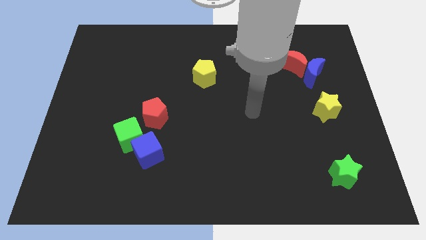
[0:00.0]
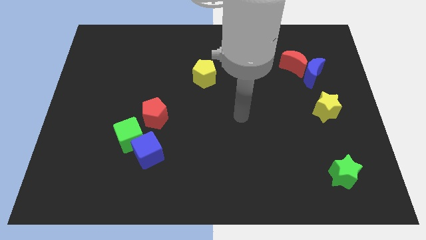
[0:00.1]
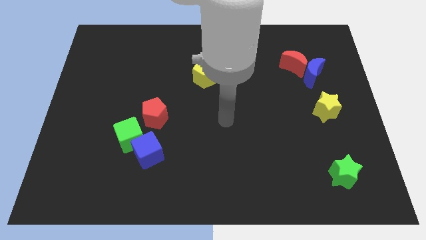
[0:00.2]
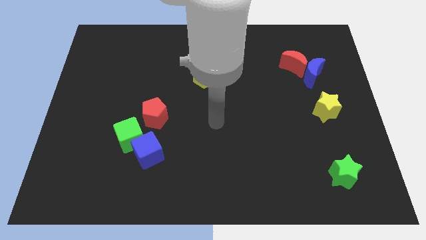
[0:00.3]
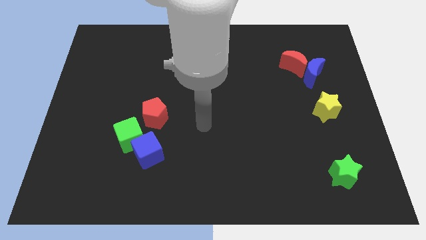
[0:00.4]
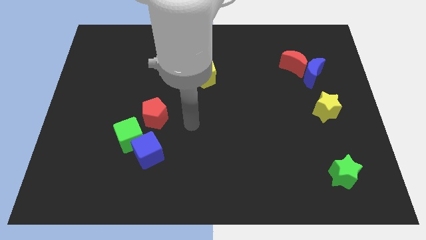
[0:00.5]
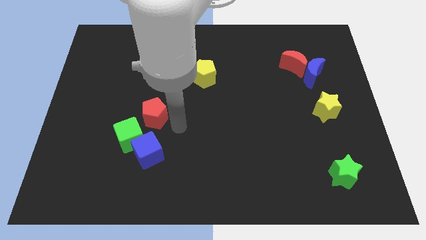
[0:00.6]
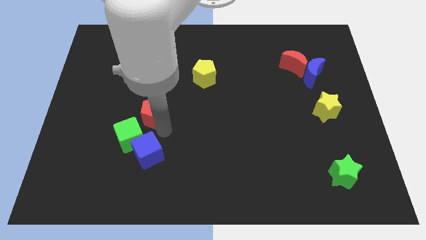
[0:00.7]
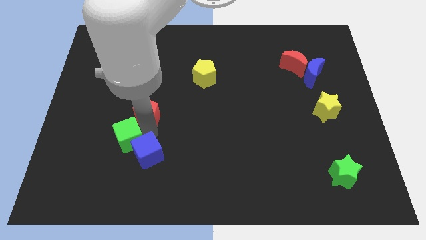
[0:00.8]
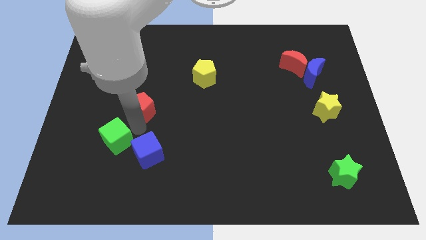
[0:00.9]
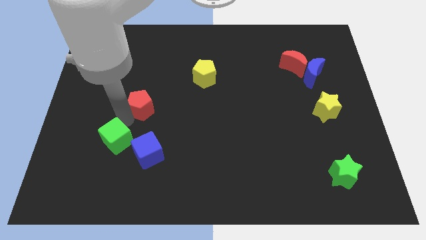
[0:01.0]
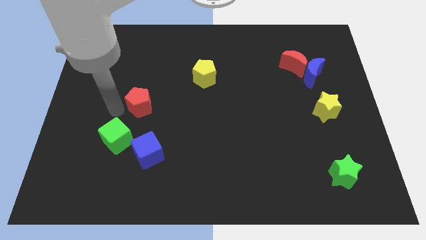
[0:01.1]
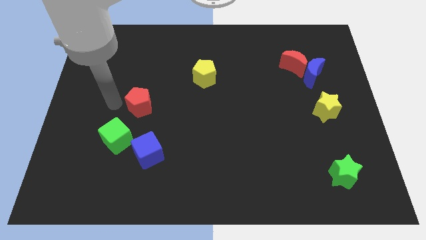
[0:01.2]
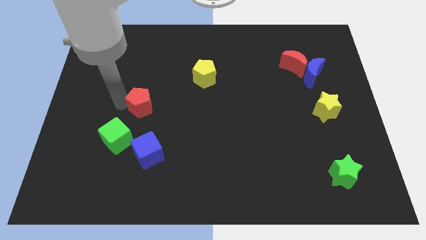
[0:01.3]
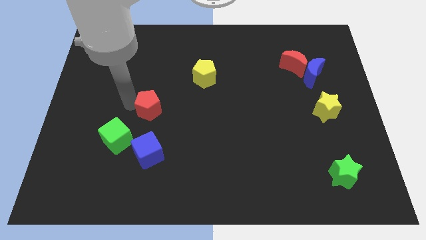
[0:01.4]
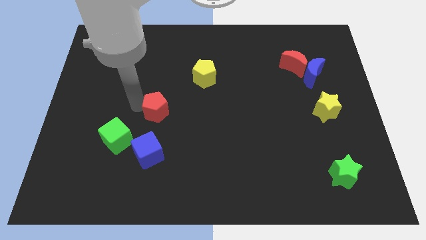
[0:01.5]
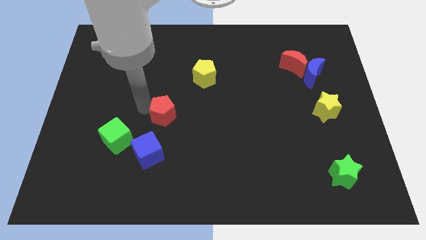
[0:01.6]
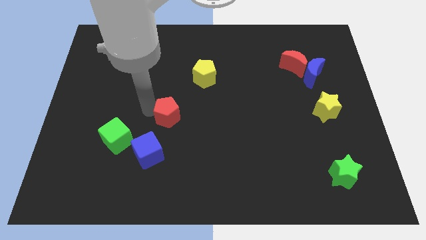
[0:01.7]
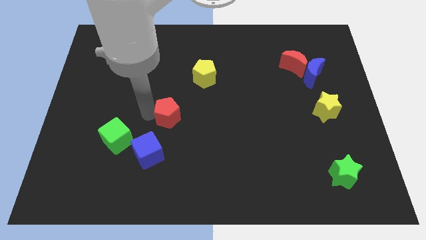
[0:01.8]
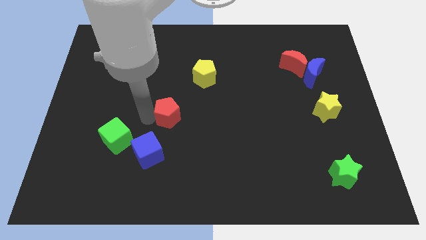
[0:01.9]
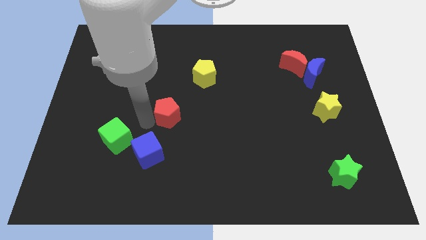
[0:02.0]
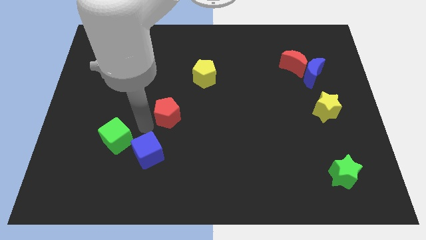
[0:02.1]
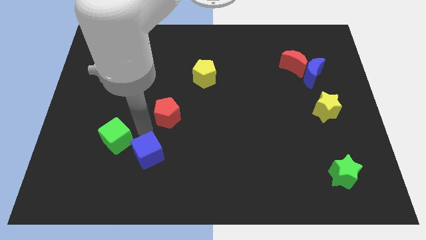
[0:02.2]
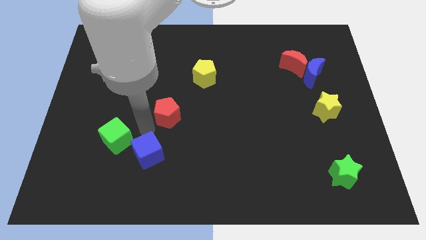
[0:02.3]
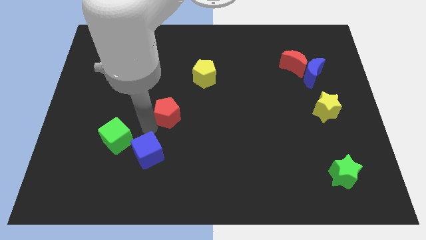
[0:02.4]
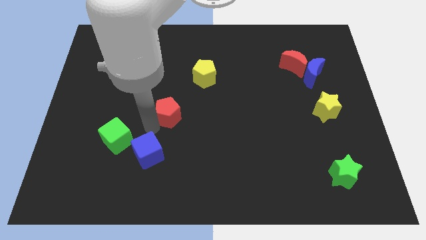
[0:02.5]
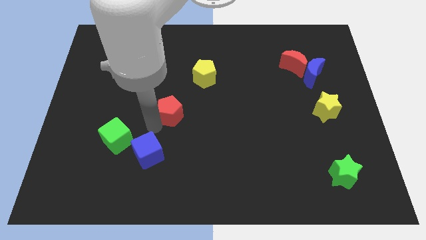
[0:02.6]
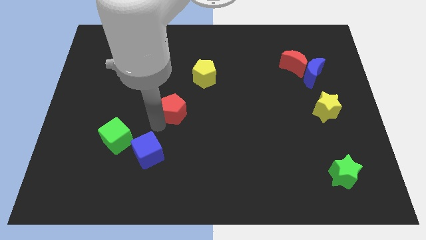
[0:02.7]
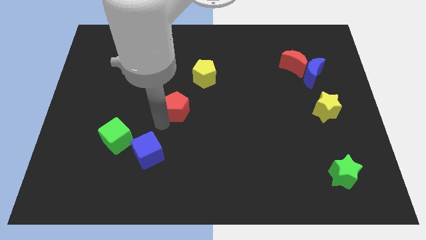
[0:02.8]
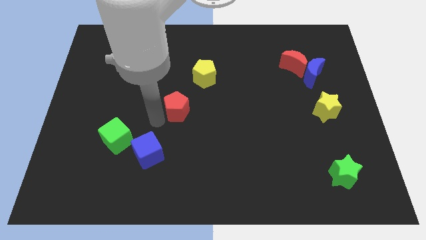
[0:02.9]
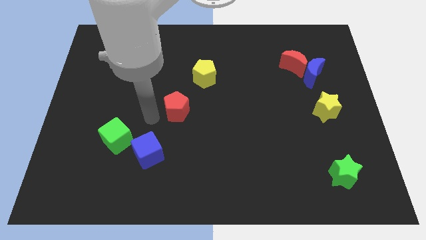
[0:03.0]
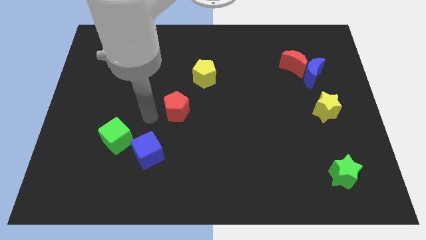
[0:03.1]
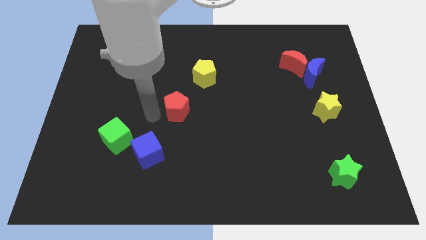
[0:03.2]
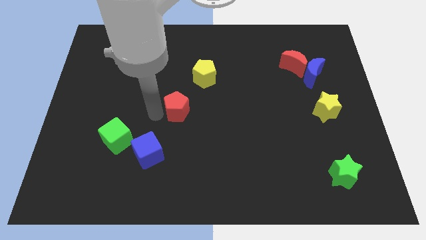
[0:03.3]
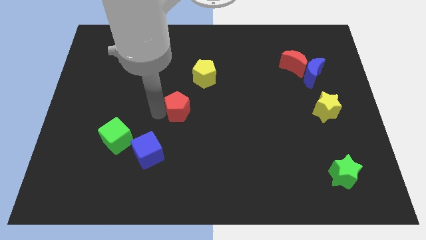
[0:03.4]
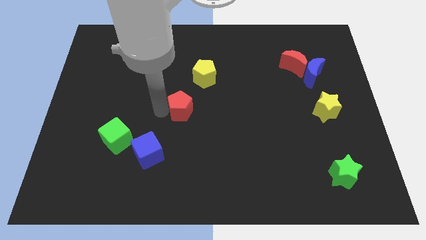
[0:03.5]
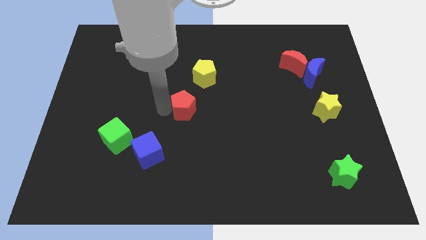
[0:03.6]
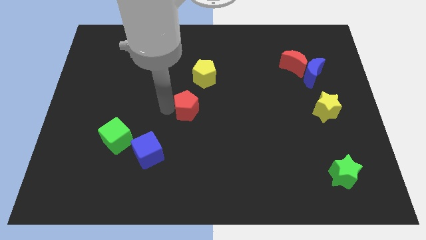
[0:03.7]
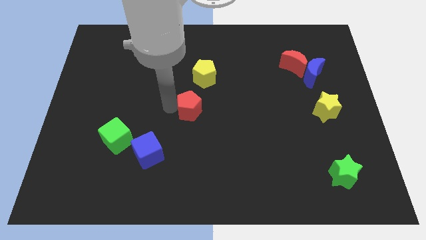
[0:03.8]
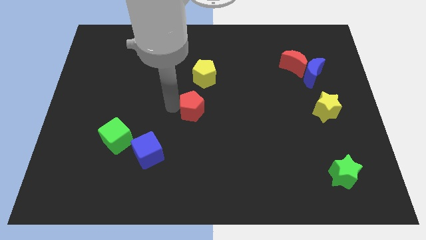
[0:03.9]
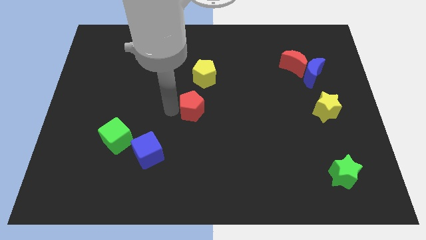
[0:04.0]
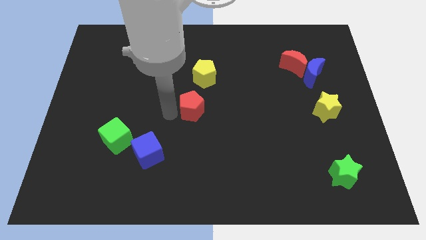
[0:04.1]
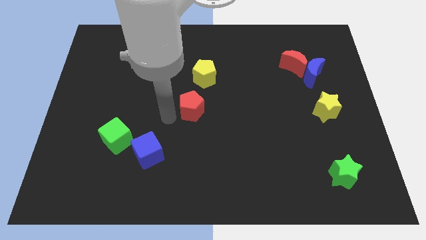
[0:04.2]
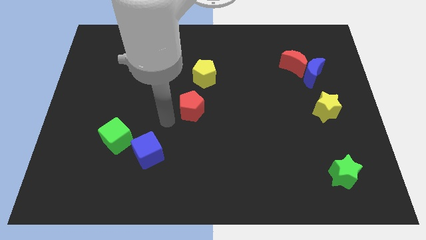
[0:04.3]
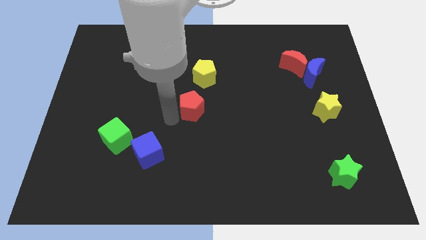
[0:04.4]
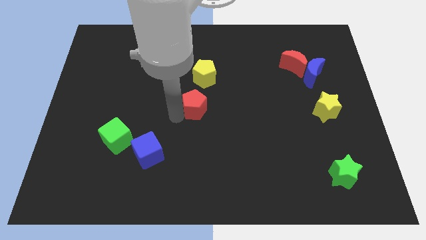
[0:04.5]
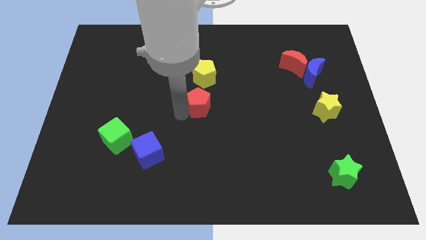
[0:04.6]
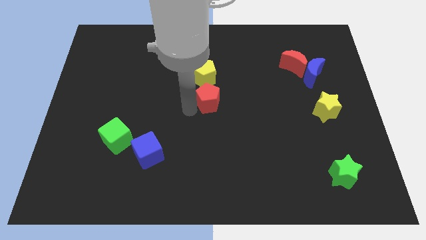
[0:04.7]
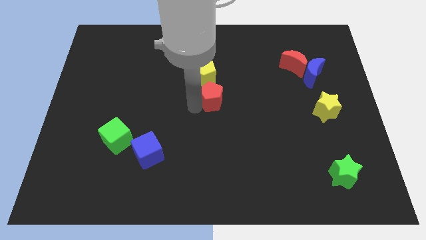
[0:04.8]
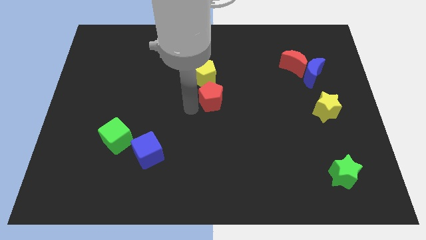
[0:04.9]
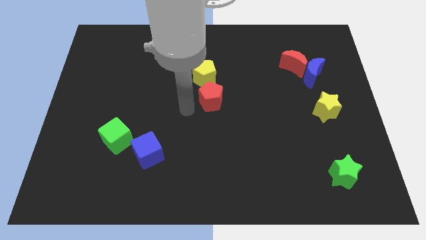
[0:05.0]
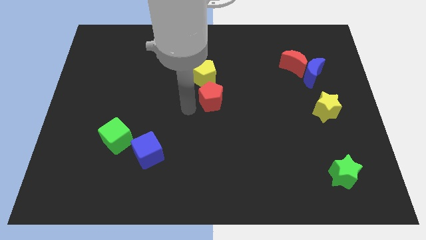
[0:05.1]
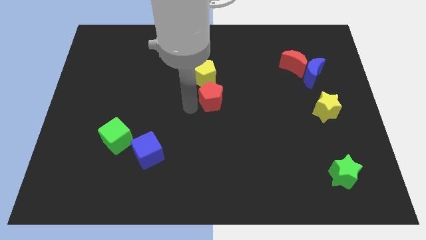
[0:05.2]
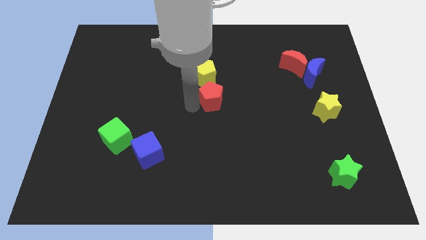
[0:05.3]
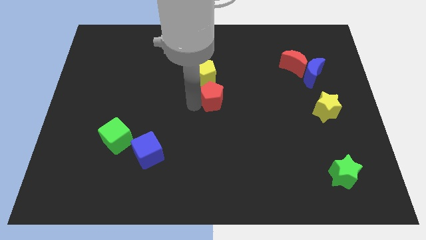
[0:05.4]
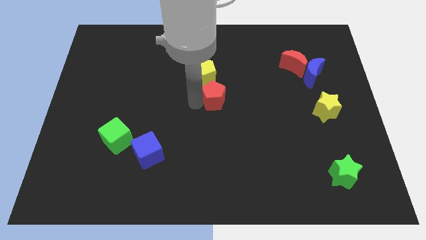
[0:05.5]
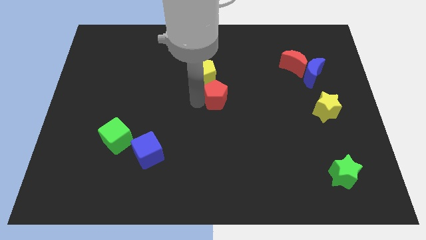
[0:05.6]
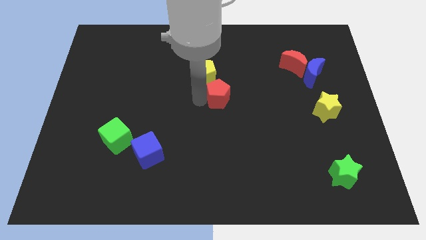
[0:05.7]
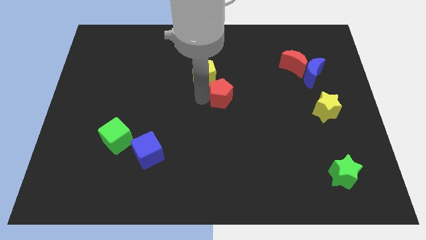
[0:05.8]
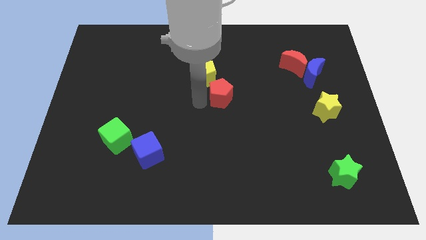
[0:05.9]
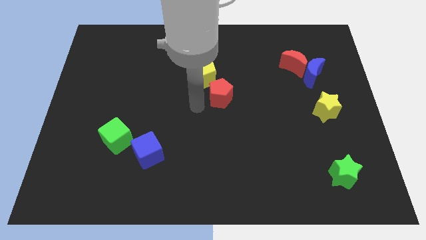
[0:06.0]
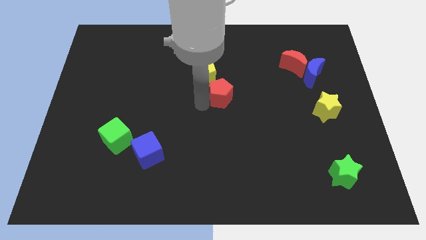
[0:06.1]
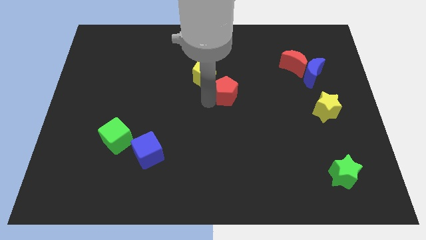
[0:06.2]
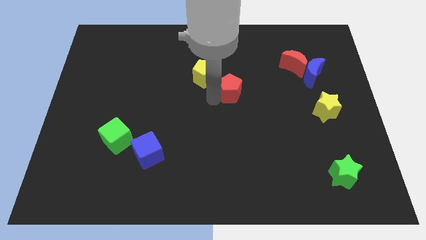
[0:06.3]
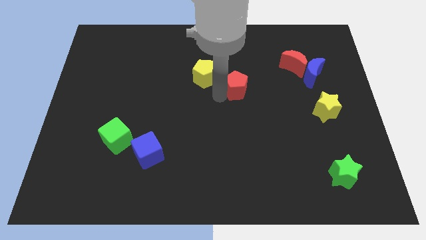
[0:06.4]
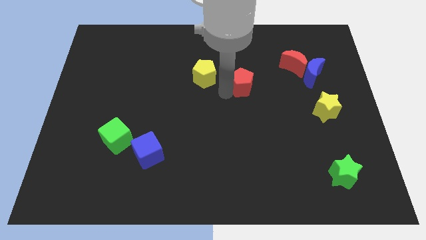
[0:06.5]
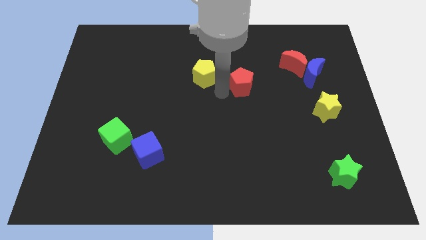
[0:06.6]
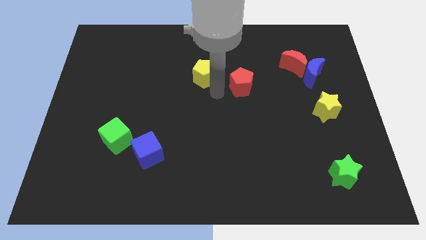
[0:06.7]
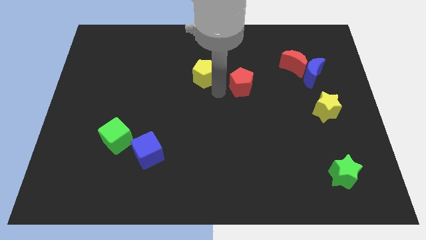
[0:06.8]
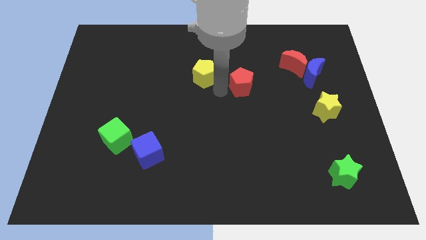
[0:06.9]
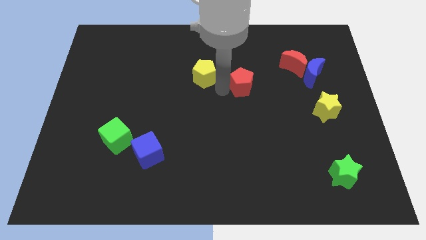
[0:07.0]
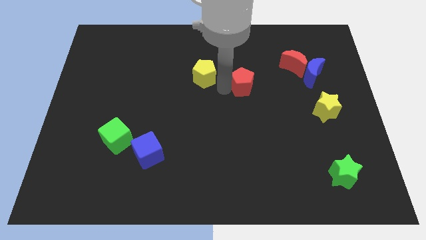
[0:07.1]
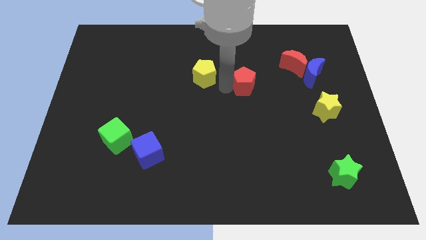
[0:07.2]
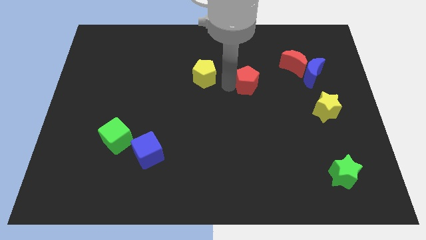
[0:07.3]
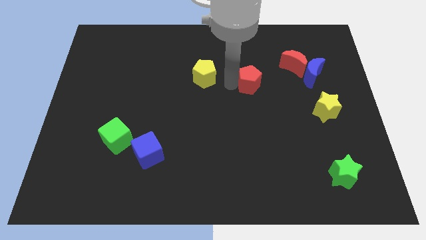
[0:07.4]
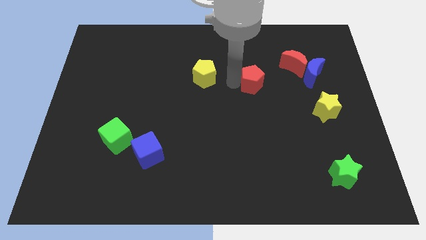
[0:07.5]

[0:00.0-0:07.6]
push the red pentagon to the left side of the blue moon

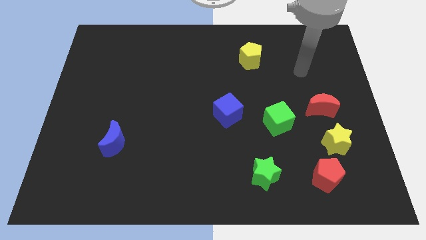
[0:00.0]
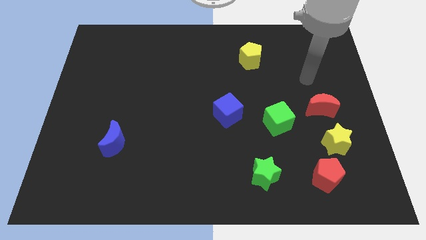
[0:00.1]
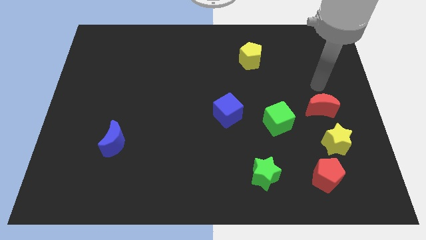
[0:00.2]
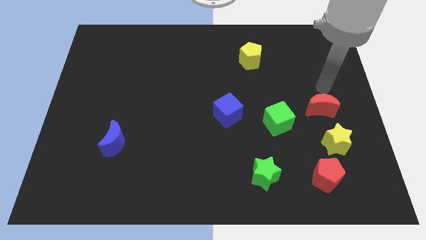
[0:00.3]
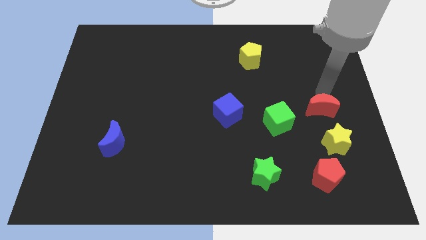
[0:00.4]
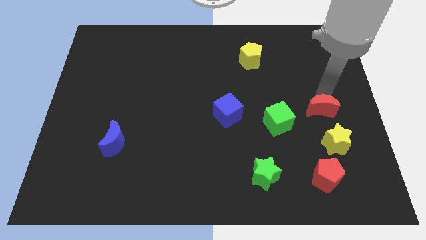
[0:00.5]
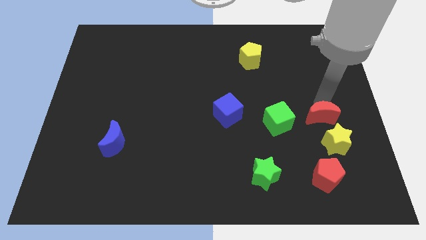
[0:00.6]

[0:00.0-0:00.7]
slide the red moon to the top side of the red pentagon
